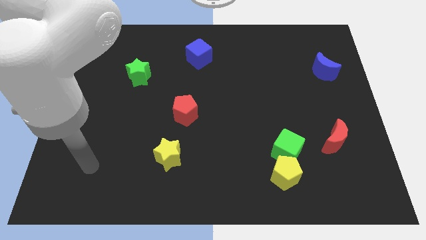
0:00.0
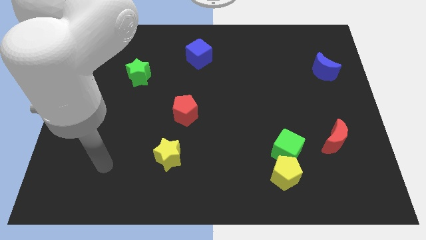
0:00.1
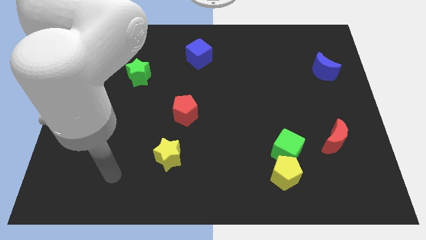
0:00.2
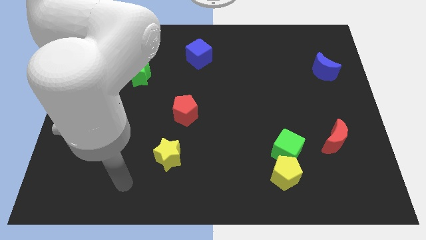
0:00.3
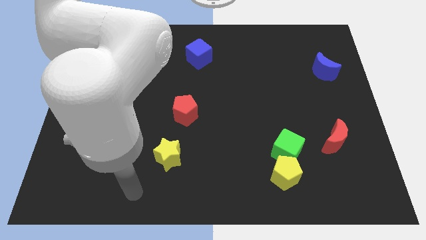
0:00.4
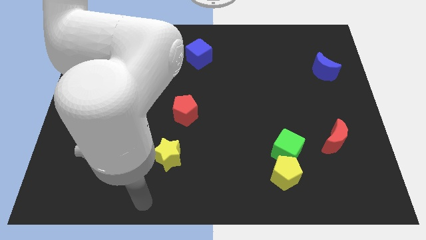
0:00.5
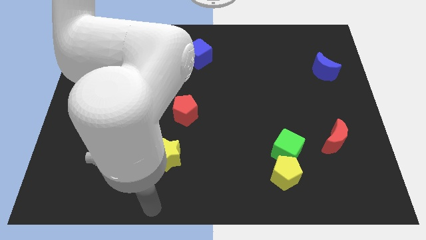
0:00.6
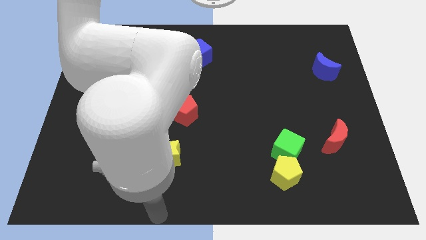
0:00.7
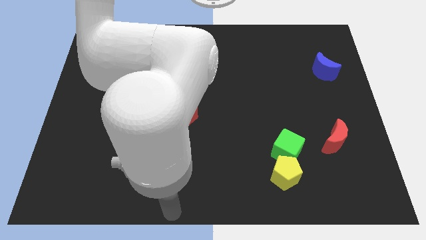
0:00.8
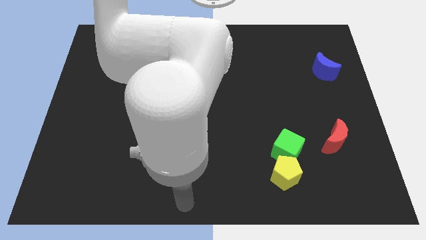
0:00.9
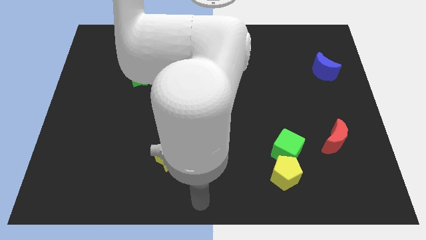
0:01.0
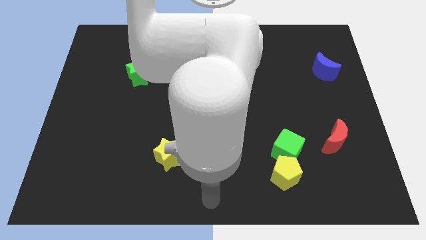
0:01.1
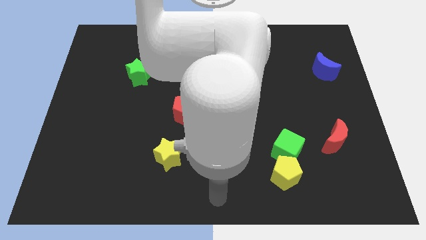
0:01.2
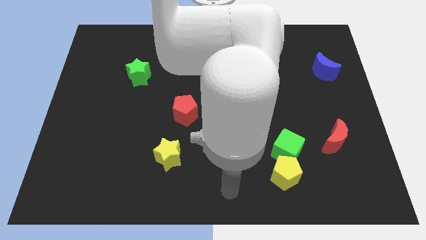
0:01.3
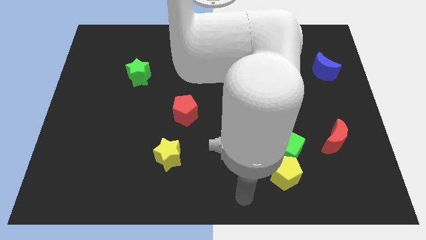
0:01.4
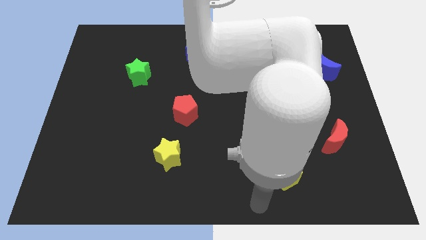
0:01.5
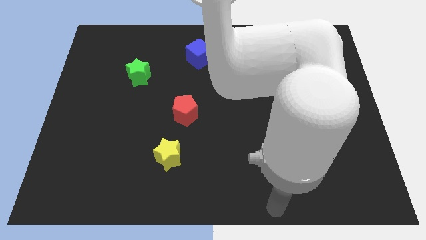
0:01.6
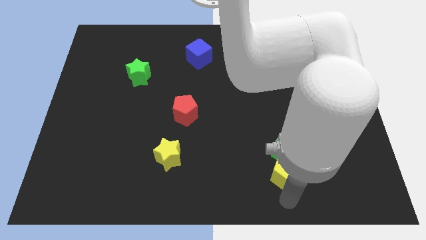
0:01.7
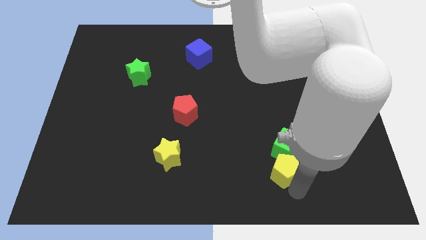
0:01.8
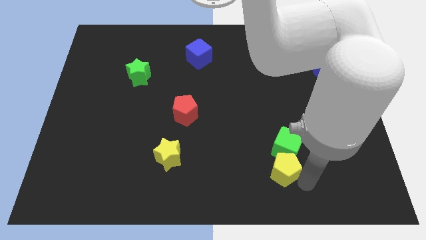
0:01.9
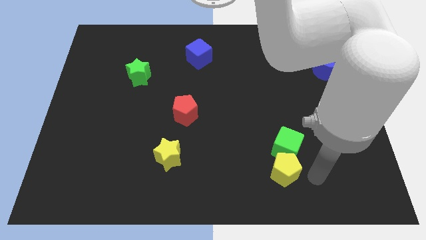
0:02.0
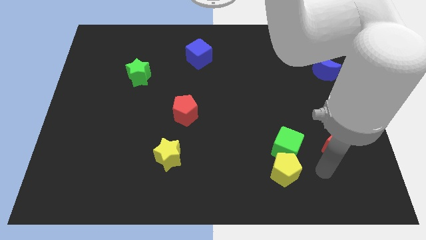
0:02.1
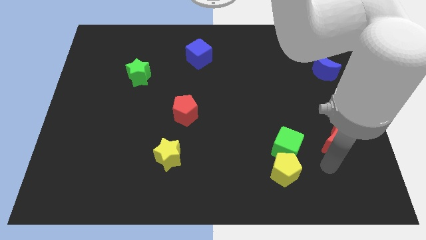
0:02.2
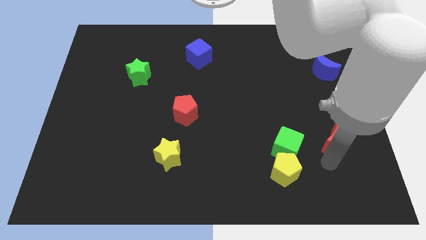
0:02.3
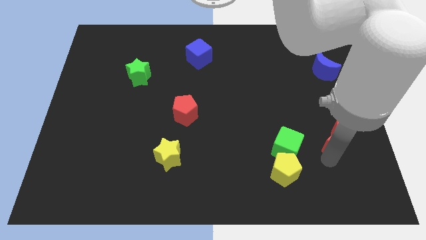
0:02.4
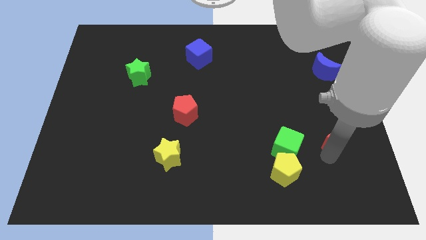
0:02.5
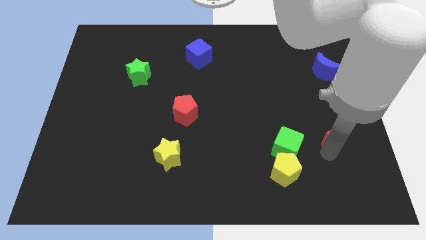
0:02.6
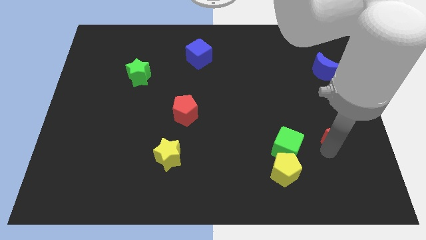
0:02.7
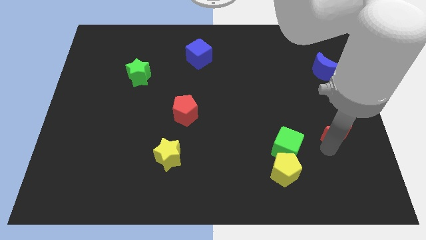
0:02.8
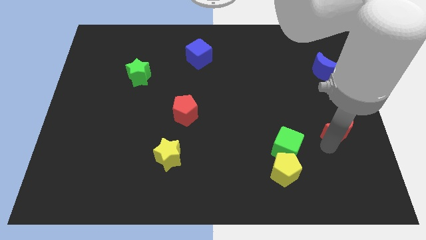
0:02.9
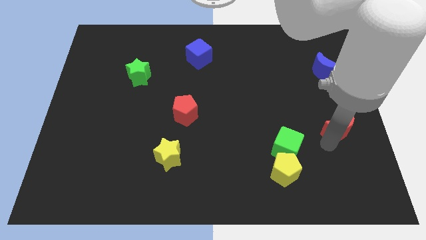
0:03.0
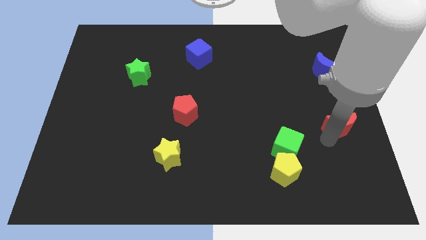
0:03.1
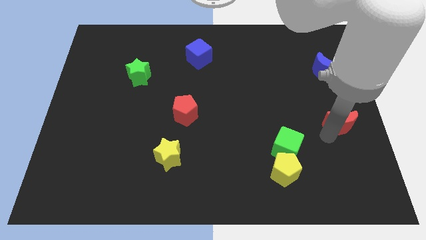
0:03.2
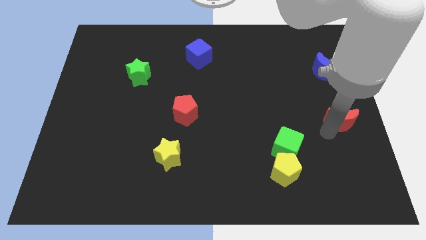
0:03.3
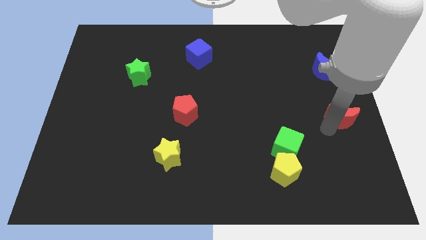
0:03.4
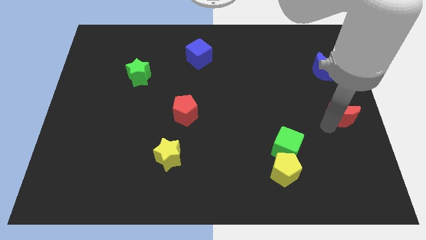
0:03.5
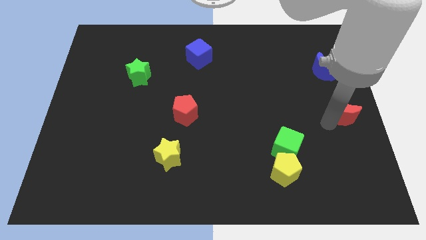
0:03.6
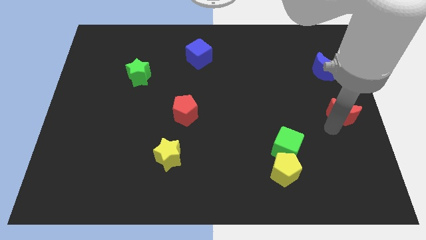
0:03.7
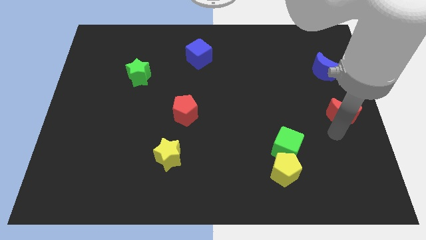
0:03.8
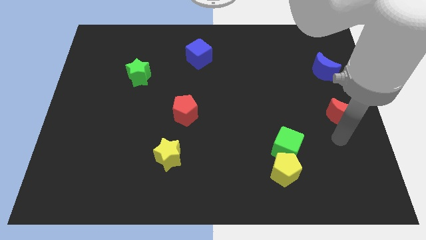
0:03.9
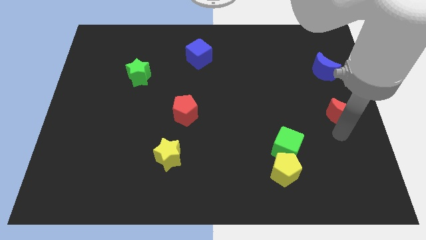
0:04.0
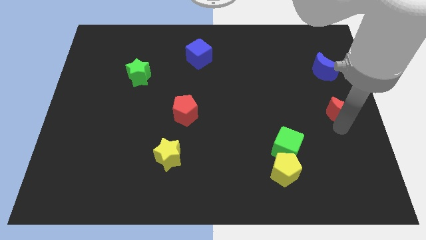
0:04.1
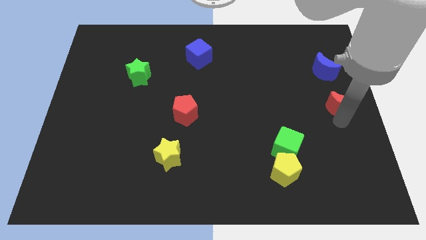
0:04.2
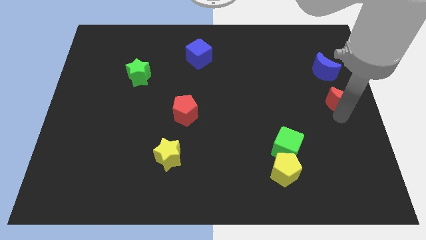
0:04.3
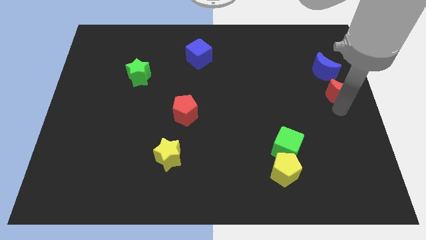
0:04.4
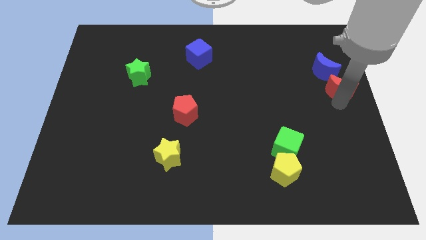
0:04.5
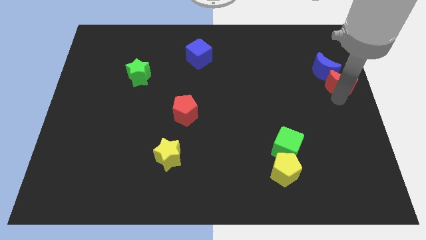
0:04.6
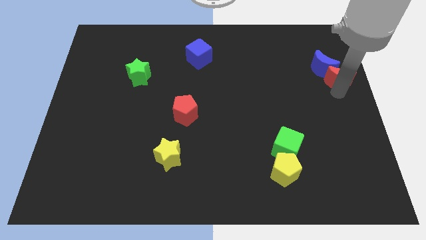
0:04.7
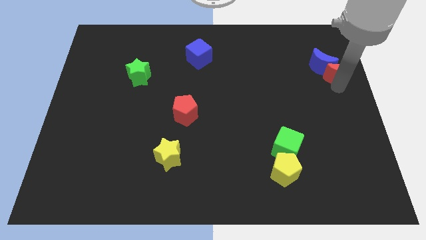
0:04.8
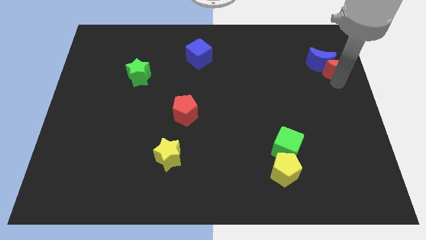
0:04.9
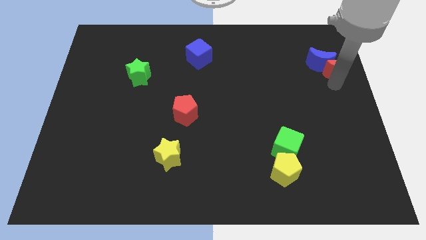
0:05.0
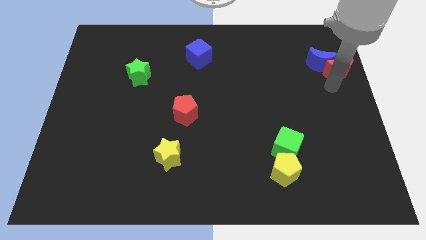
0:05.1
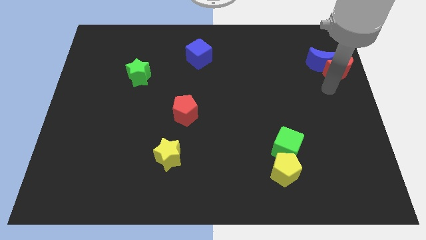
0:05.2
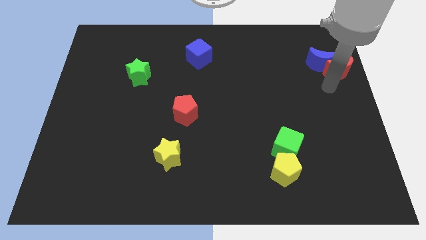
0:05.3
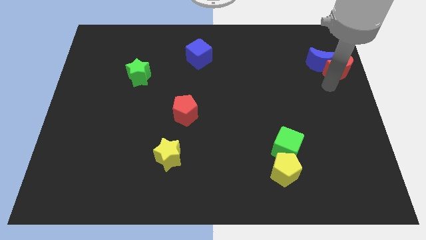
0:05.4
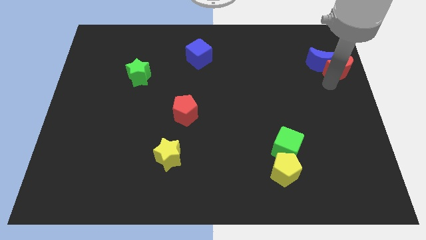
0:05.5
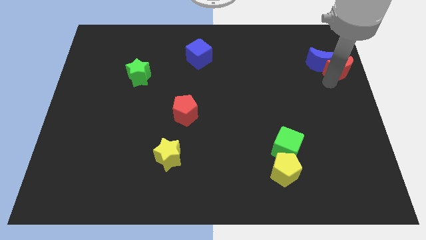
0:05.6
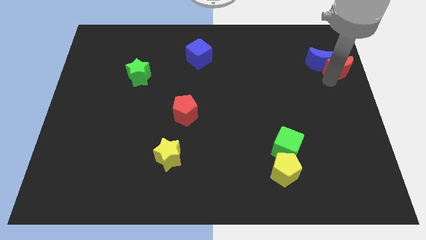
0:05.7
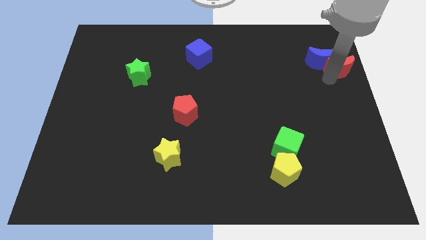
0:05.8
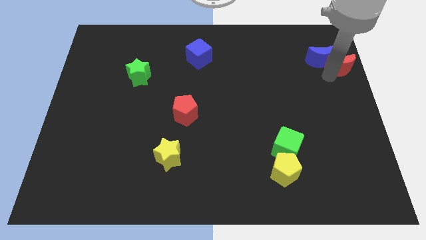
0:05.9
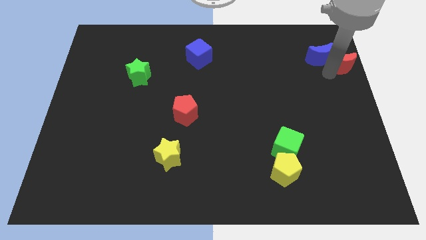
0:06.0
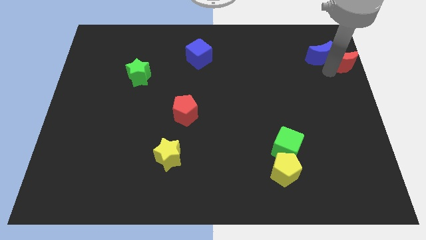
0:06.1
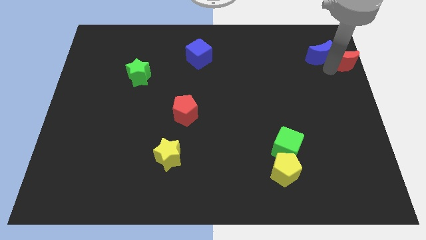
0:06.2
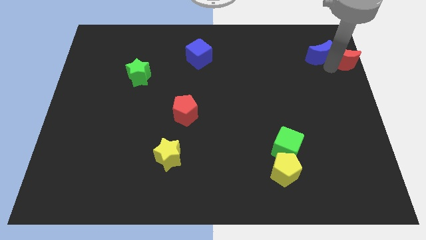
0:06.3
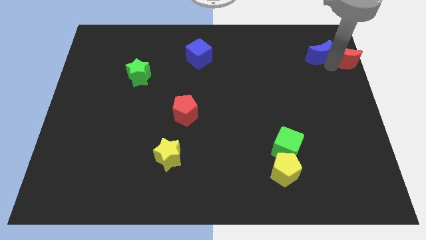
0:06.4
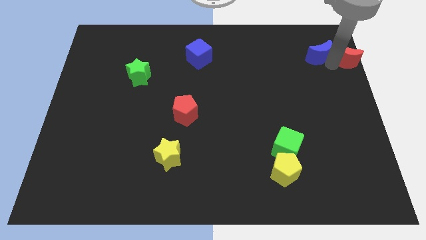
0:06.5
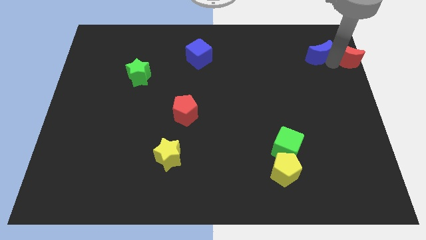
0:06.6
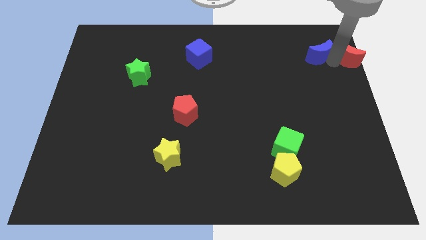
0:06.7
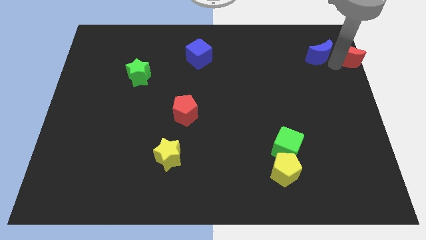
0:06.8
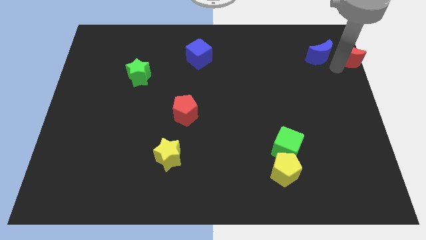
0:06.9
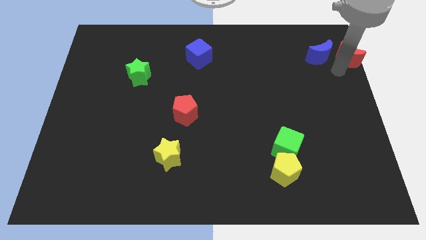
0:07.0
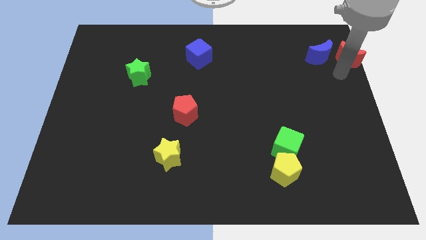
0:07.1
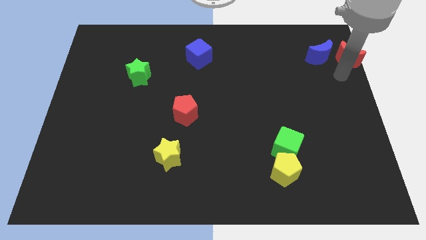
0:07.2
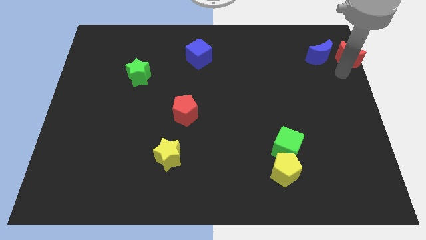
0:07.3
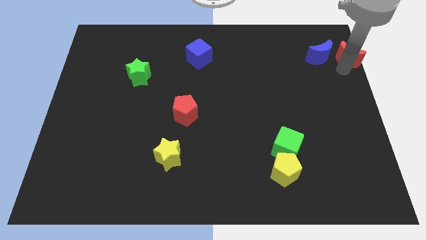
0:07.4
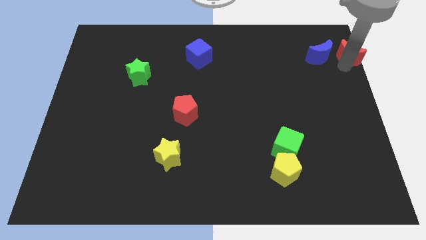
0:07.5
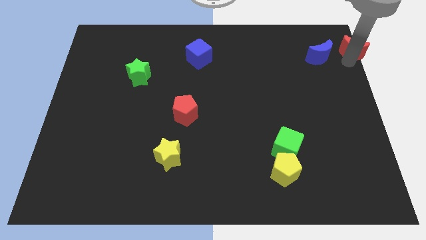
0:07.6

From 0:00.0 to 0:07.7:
move the red moon to the top right
